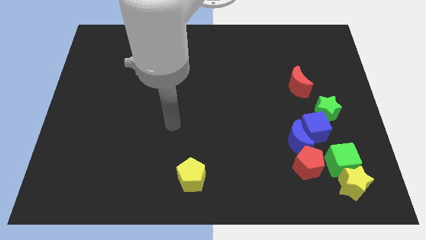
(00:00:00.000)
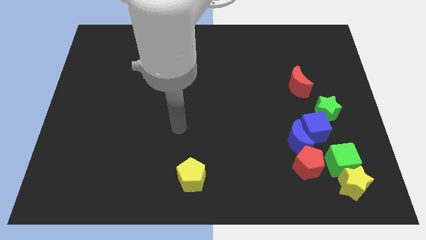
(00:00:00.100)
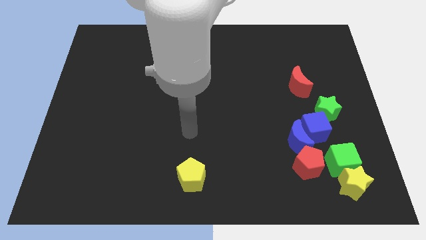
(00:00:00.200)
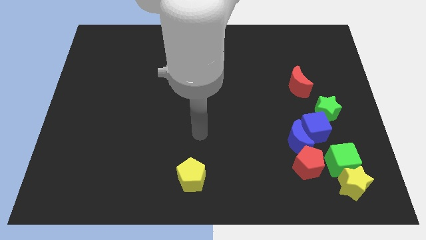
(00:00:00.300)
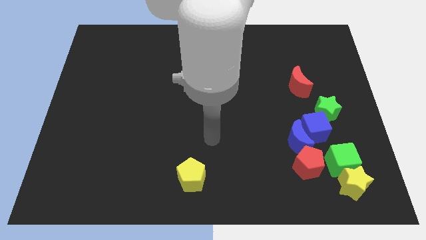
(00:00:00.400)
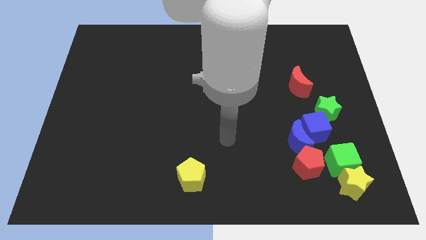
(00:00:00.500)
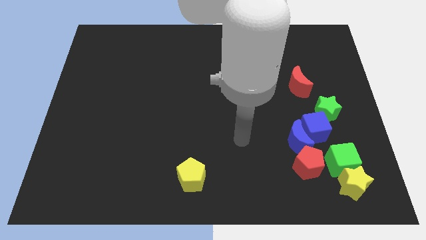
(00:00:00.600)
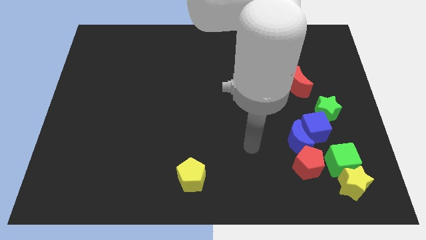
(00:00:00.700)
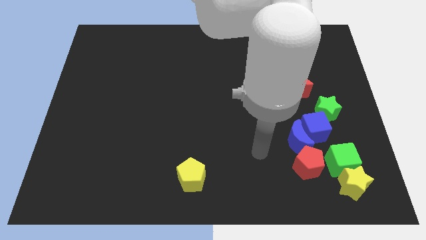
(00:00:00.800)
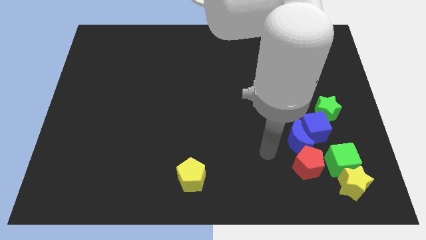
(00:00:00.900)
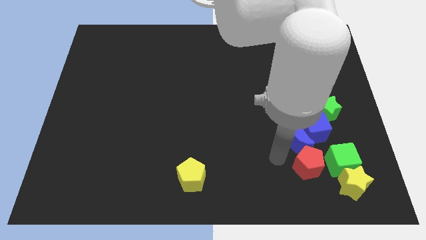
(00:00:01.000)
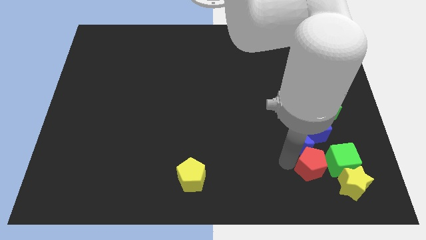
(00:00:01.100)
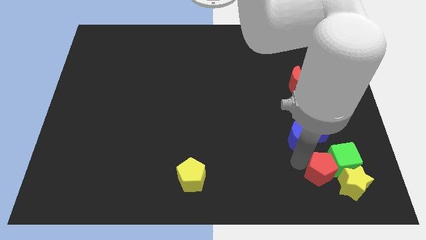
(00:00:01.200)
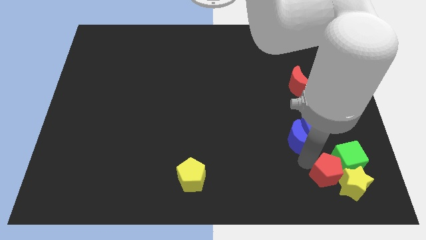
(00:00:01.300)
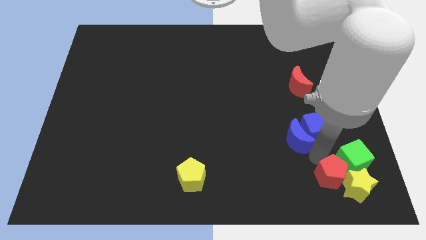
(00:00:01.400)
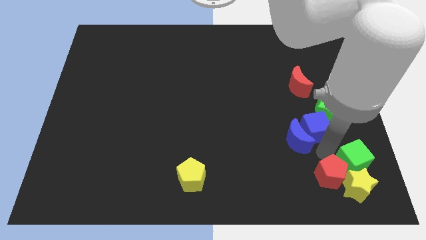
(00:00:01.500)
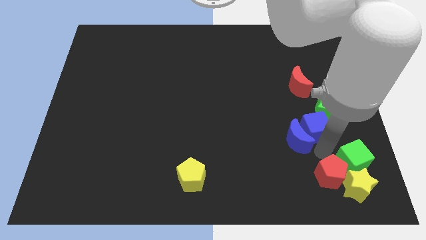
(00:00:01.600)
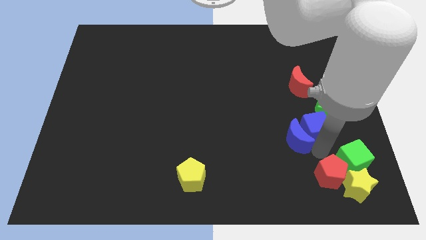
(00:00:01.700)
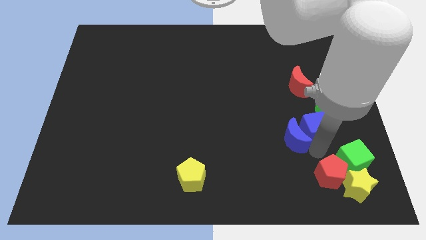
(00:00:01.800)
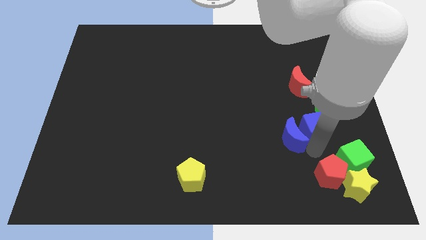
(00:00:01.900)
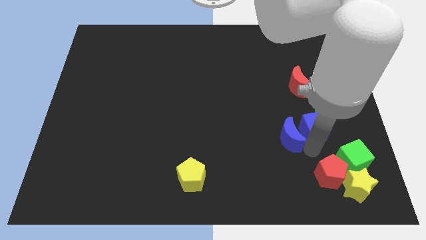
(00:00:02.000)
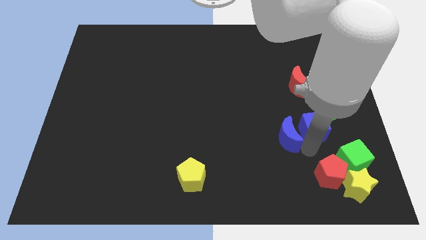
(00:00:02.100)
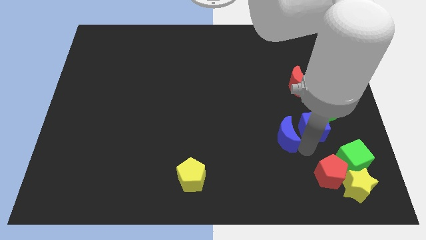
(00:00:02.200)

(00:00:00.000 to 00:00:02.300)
separate the blue moon from the clump

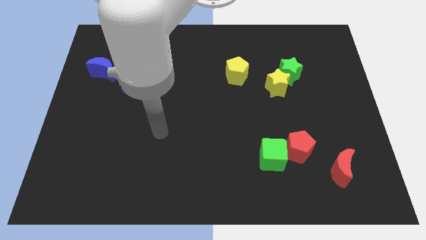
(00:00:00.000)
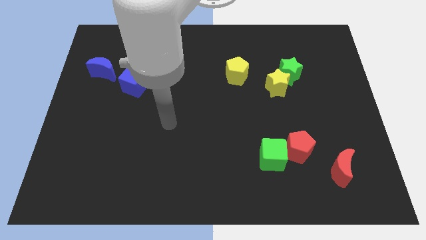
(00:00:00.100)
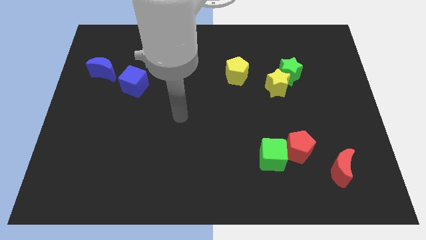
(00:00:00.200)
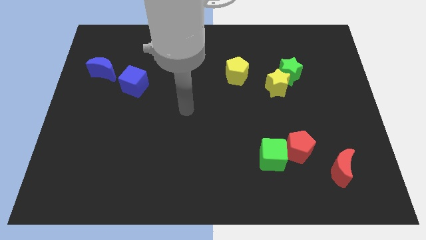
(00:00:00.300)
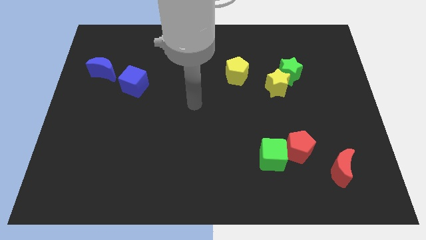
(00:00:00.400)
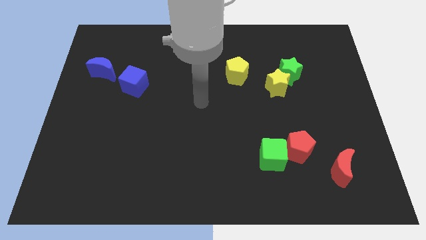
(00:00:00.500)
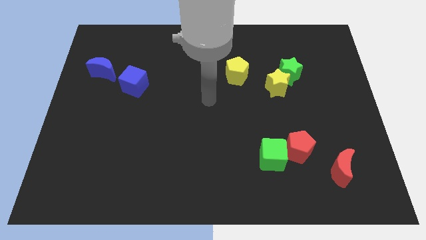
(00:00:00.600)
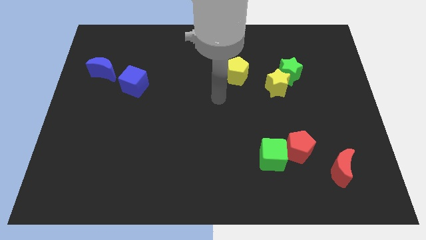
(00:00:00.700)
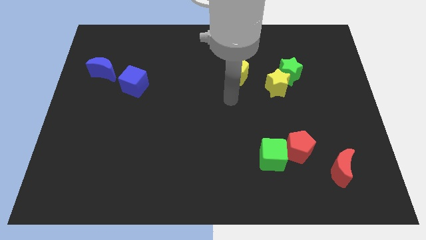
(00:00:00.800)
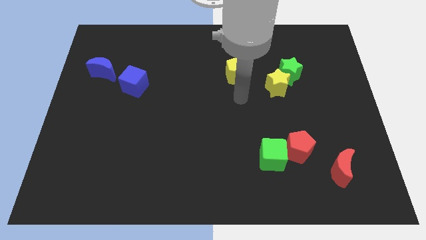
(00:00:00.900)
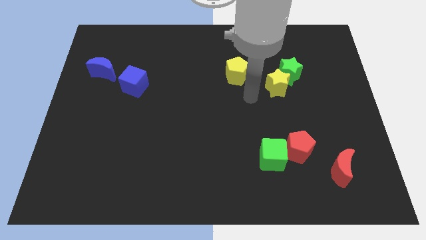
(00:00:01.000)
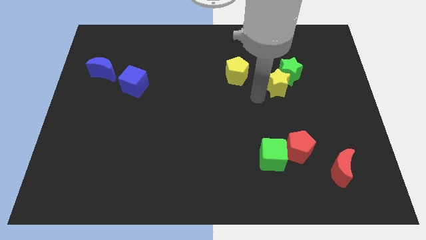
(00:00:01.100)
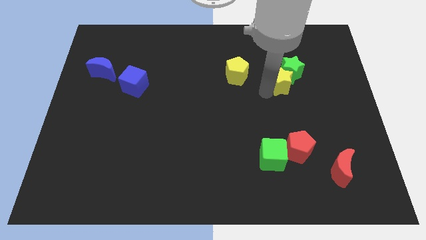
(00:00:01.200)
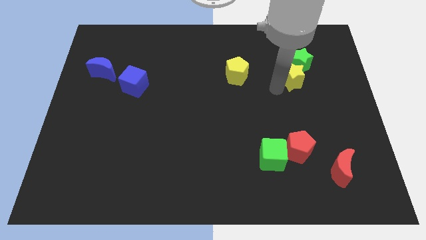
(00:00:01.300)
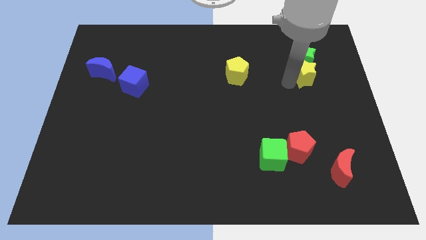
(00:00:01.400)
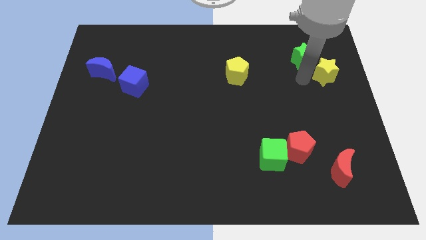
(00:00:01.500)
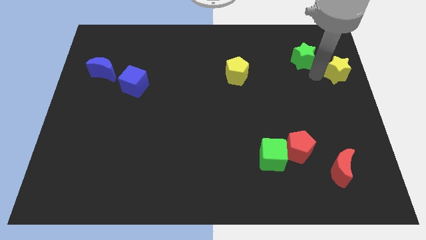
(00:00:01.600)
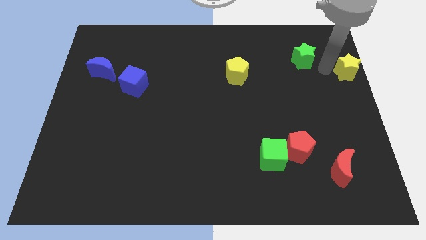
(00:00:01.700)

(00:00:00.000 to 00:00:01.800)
separate the green star from the yellow star

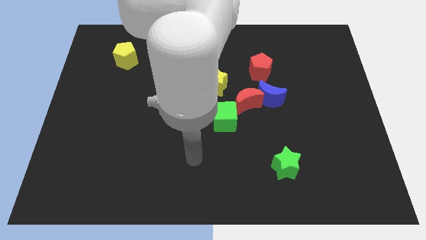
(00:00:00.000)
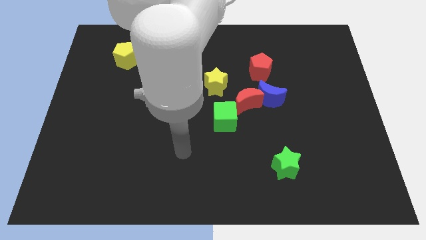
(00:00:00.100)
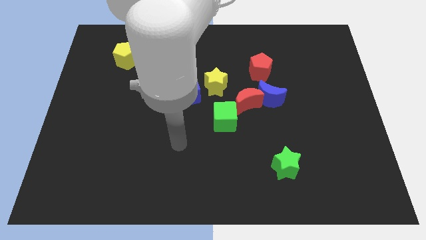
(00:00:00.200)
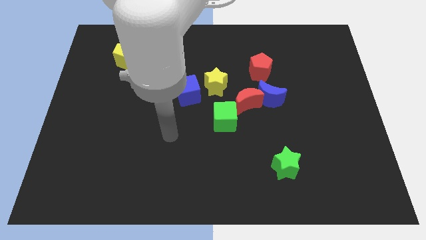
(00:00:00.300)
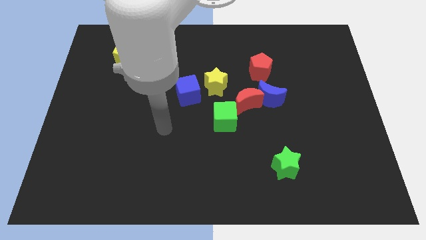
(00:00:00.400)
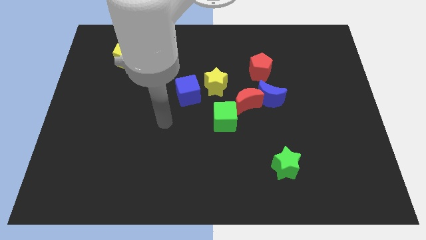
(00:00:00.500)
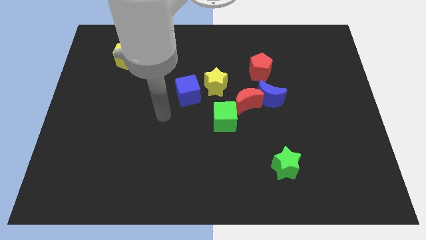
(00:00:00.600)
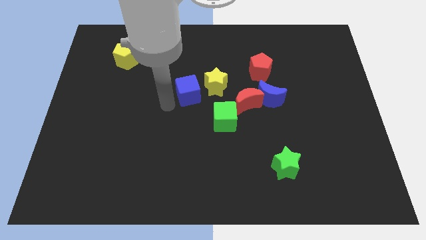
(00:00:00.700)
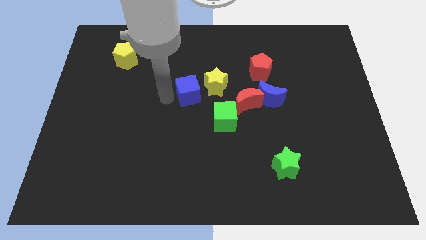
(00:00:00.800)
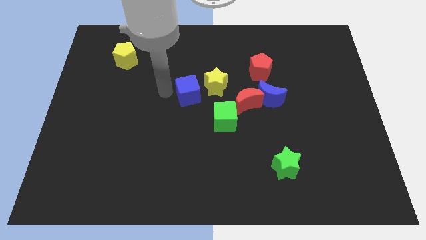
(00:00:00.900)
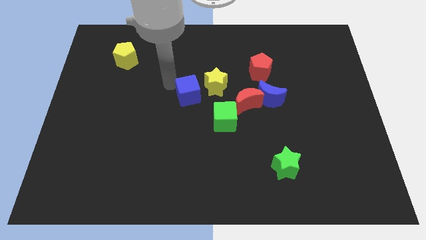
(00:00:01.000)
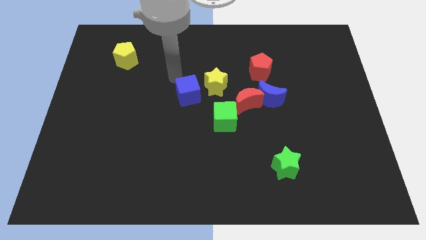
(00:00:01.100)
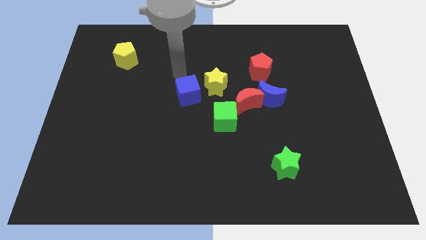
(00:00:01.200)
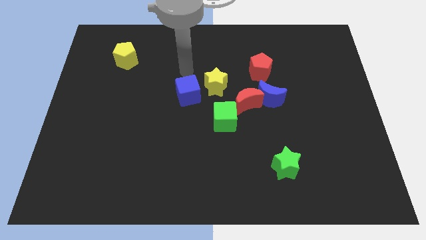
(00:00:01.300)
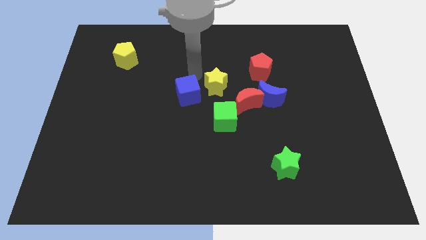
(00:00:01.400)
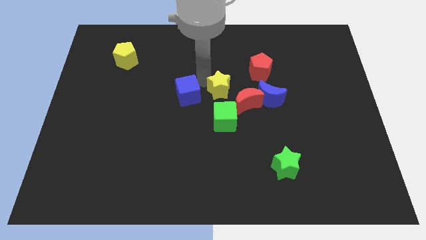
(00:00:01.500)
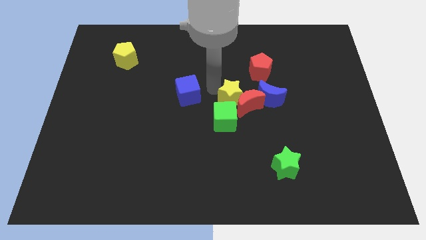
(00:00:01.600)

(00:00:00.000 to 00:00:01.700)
pull the blue cube apart from the yellow star

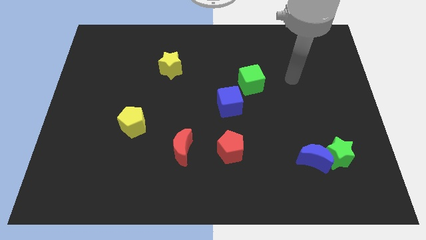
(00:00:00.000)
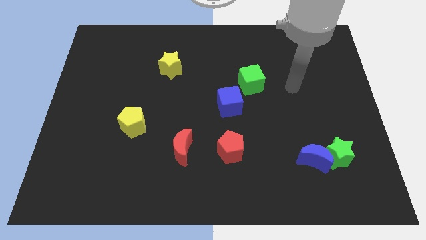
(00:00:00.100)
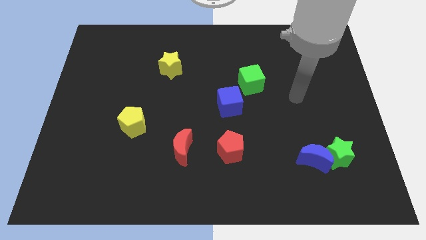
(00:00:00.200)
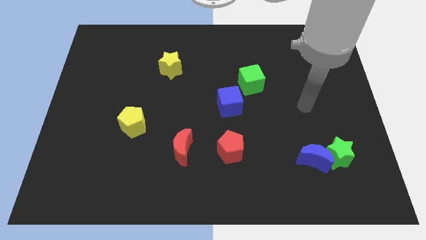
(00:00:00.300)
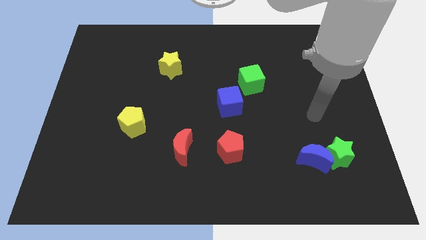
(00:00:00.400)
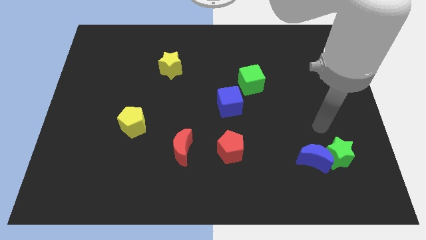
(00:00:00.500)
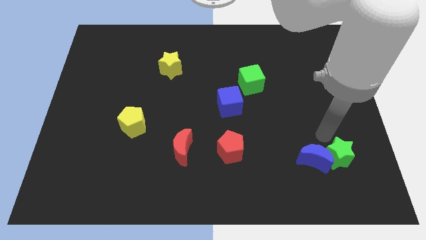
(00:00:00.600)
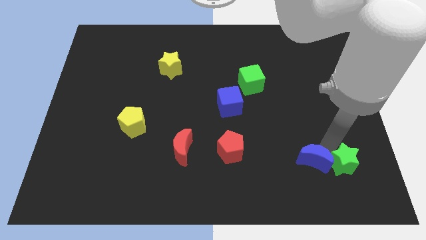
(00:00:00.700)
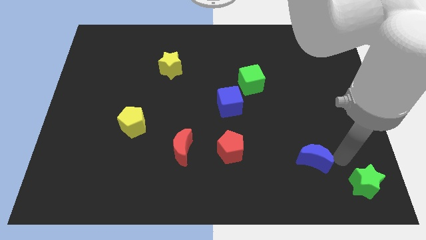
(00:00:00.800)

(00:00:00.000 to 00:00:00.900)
move the blue moon away from the green star

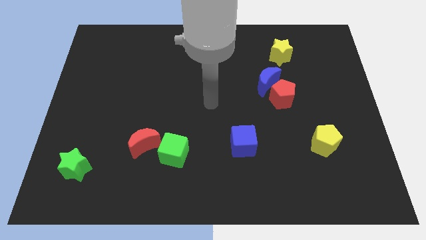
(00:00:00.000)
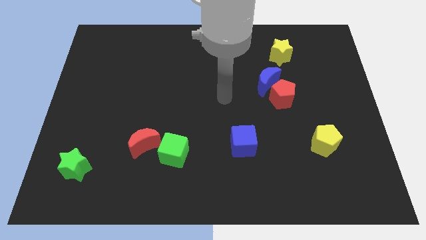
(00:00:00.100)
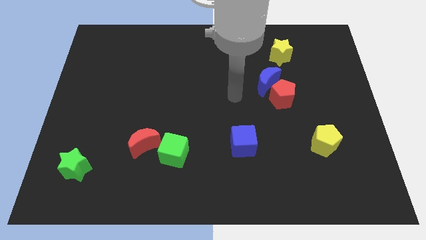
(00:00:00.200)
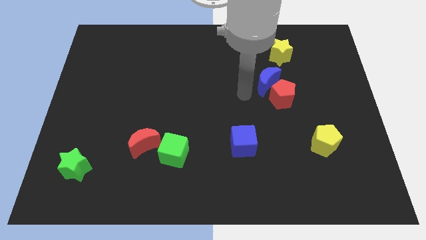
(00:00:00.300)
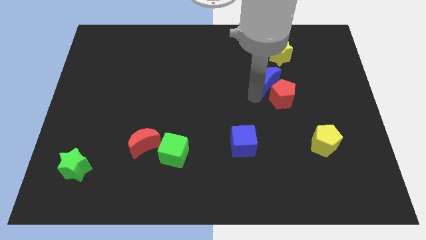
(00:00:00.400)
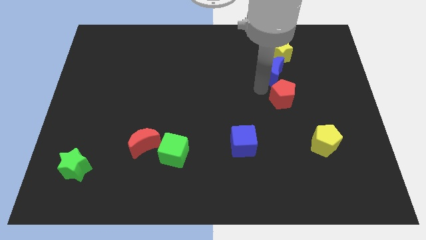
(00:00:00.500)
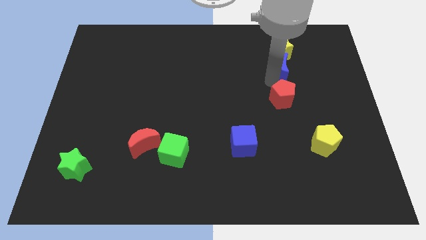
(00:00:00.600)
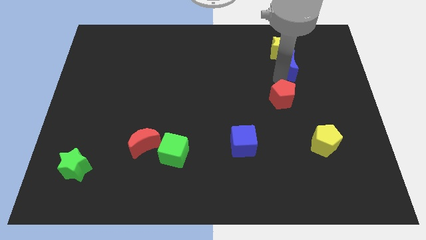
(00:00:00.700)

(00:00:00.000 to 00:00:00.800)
move the red pentagon away from the blue moon

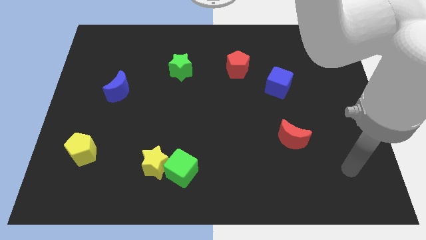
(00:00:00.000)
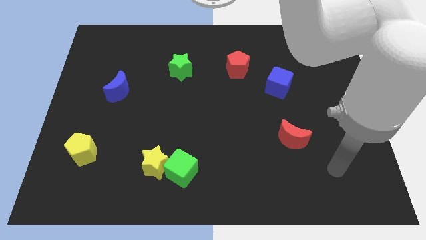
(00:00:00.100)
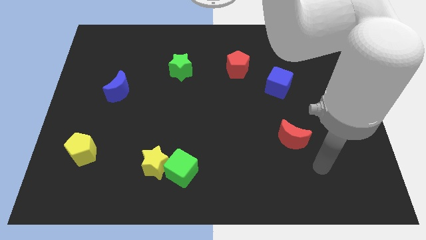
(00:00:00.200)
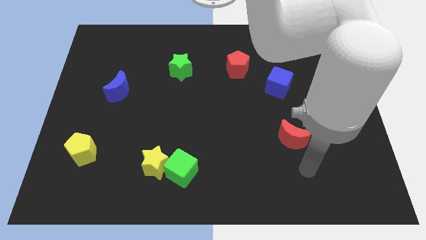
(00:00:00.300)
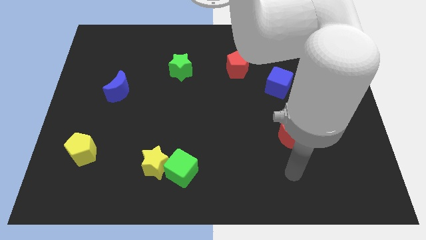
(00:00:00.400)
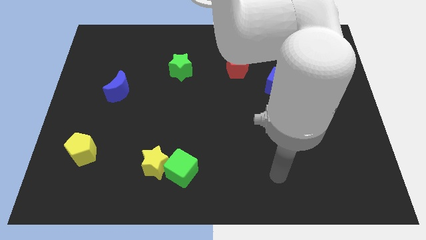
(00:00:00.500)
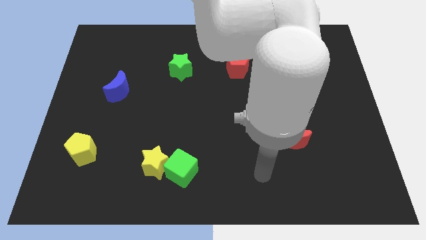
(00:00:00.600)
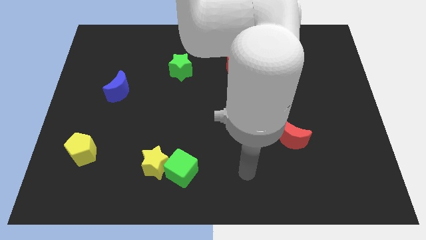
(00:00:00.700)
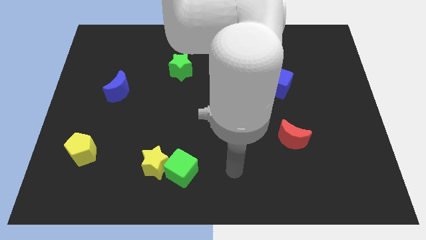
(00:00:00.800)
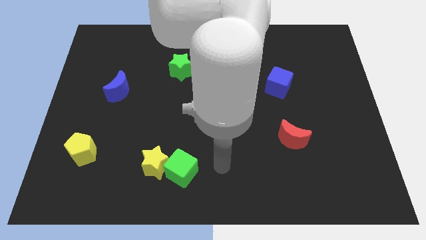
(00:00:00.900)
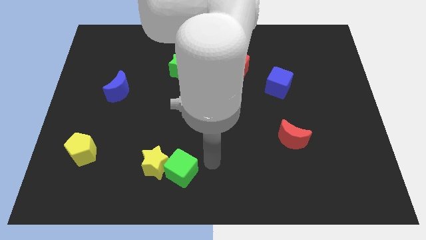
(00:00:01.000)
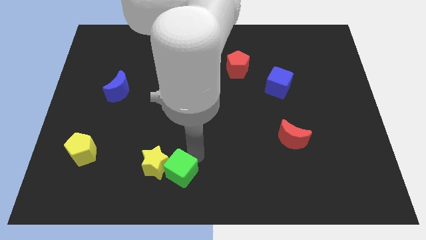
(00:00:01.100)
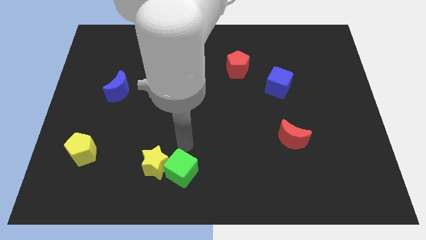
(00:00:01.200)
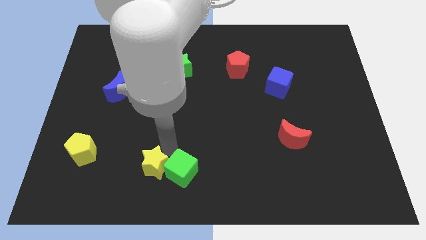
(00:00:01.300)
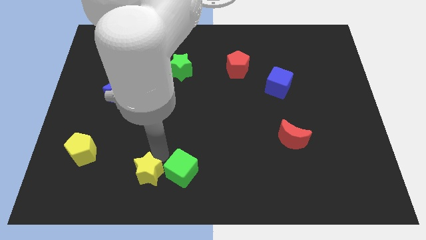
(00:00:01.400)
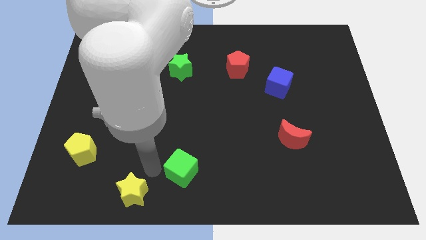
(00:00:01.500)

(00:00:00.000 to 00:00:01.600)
separate the green cube from the yellow star

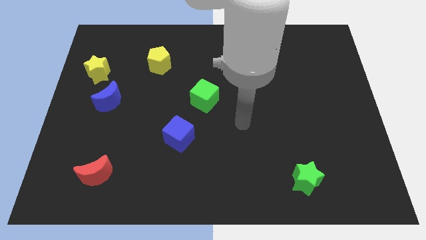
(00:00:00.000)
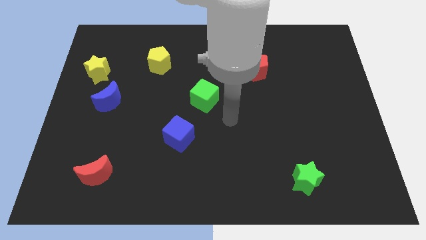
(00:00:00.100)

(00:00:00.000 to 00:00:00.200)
pull the blue moon apart from the yellow star
